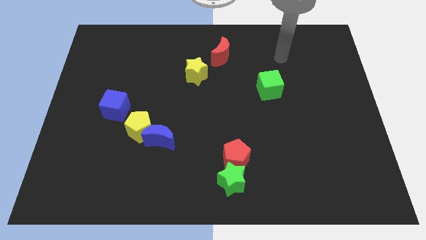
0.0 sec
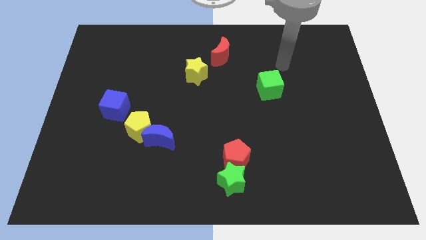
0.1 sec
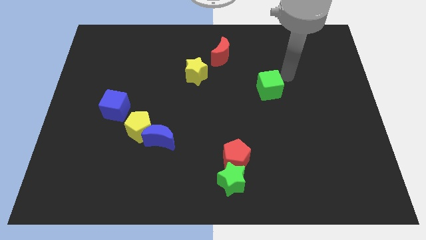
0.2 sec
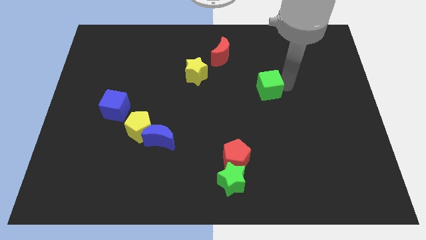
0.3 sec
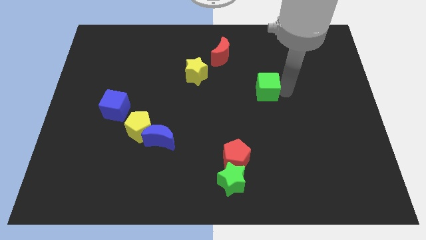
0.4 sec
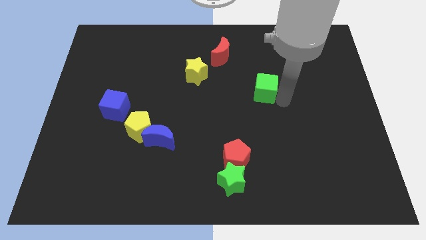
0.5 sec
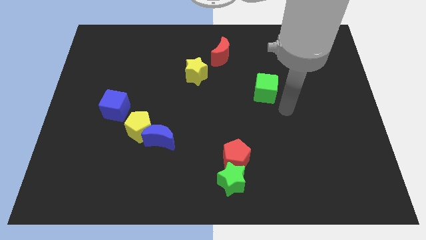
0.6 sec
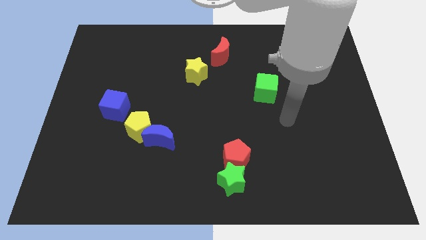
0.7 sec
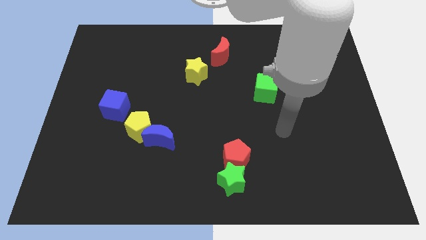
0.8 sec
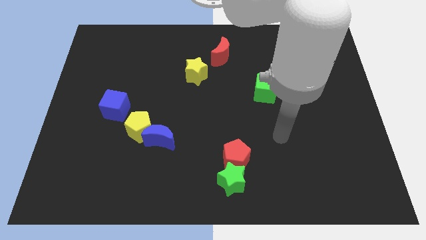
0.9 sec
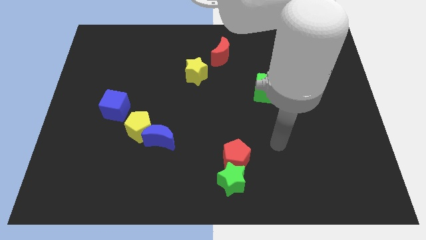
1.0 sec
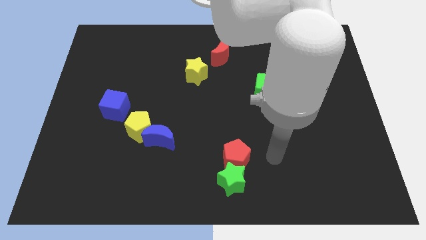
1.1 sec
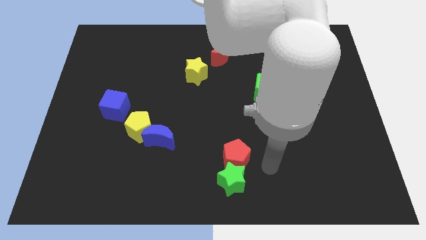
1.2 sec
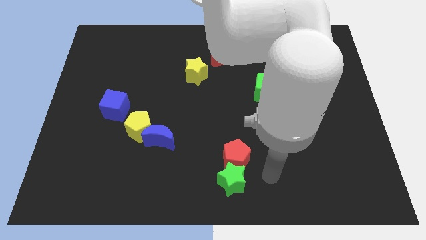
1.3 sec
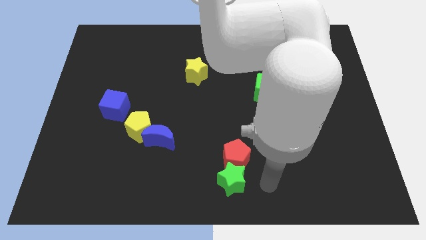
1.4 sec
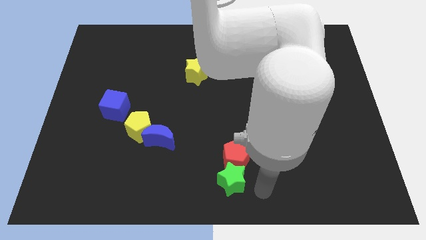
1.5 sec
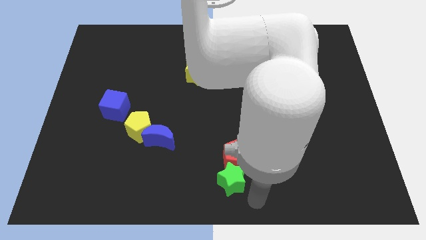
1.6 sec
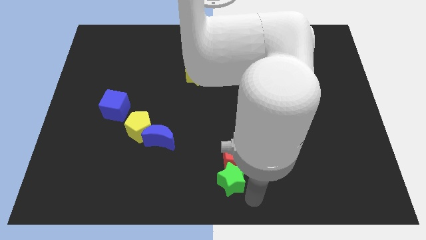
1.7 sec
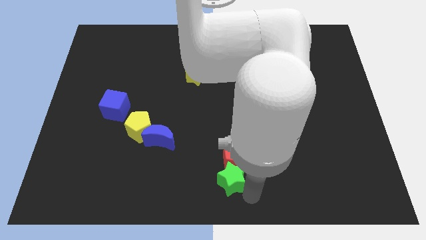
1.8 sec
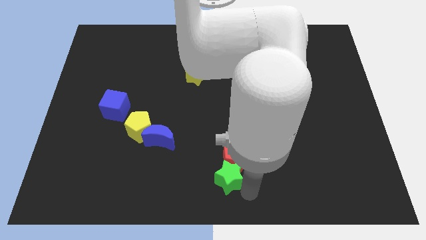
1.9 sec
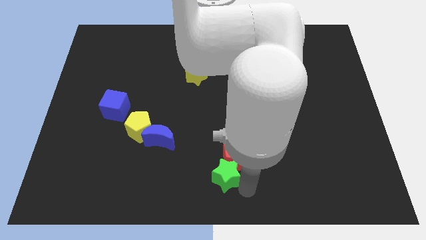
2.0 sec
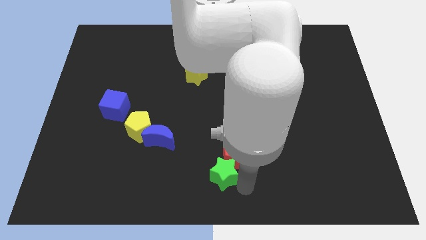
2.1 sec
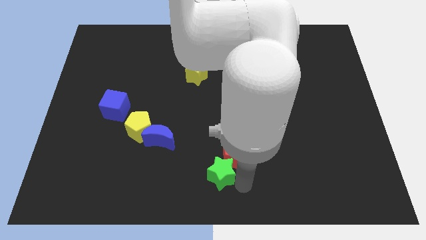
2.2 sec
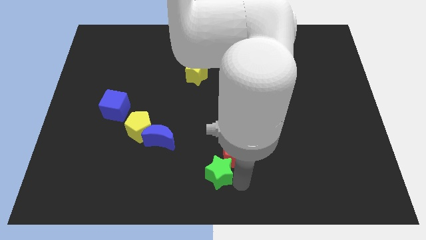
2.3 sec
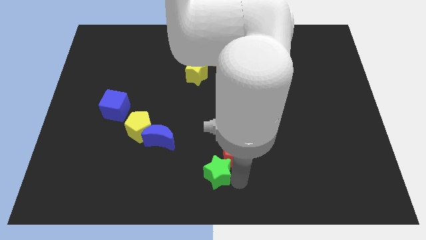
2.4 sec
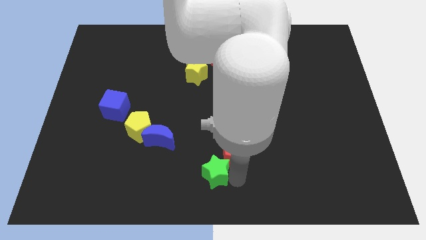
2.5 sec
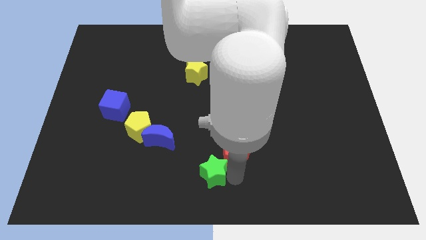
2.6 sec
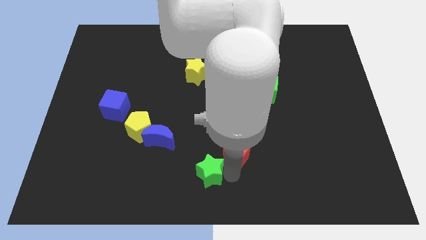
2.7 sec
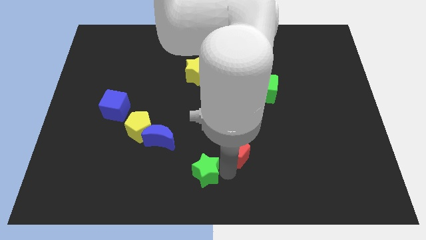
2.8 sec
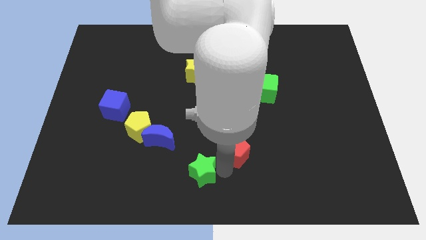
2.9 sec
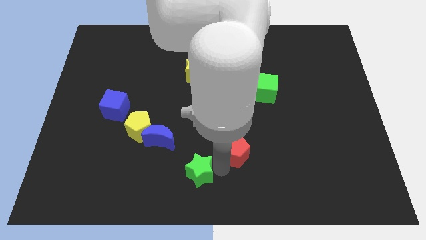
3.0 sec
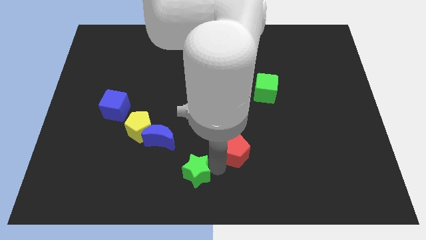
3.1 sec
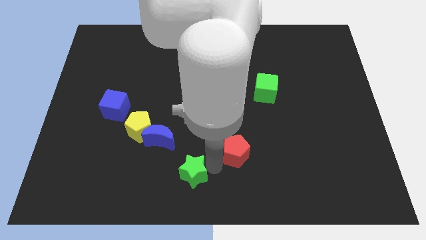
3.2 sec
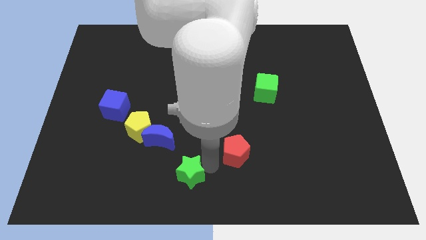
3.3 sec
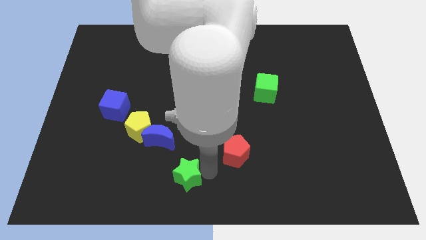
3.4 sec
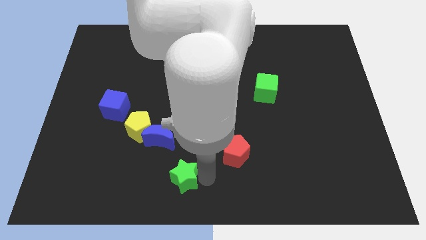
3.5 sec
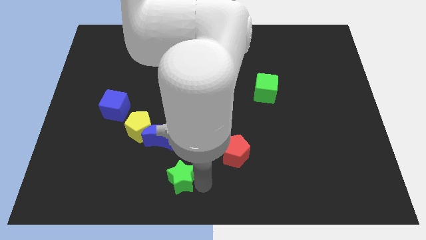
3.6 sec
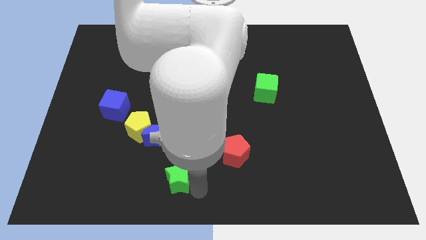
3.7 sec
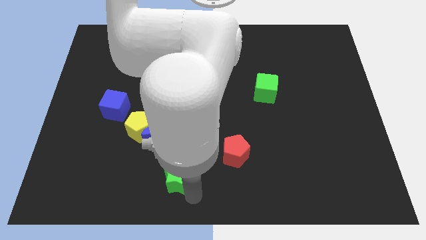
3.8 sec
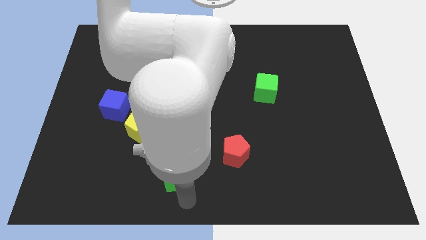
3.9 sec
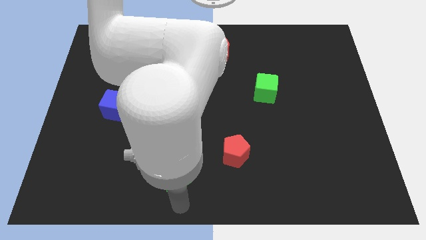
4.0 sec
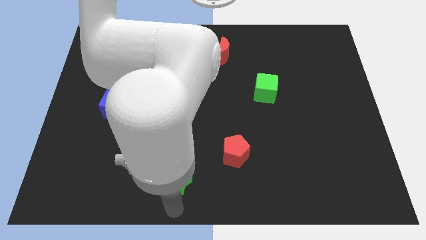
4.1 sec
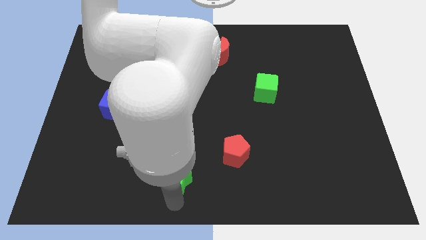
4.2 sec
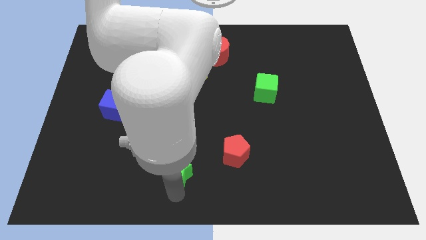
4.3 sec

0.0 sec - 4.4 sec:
push the green star a bit up and to the left

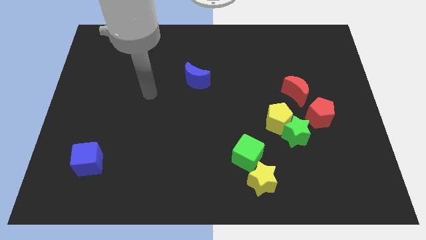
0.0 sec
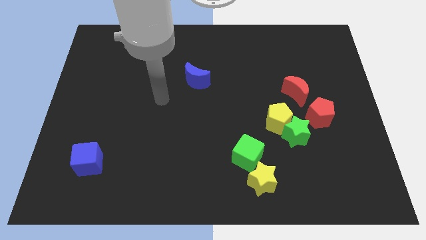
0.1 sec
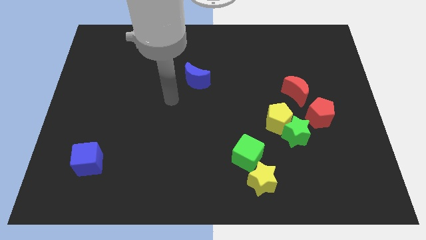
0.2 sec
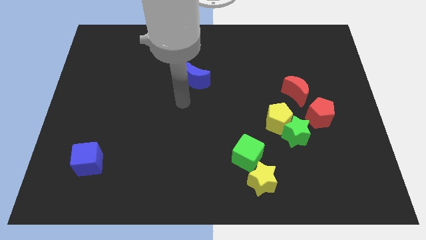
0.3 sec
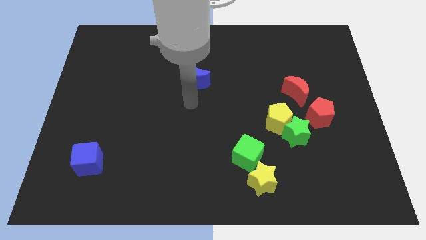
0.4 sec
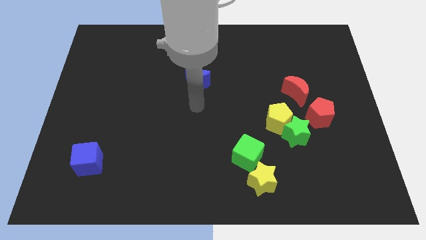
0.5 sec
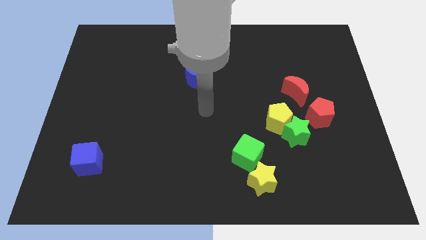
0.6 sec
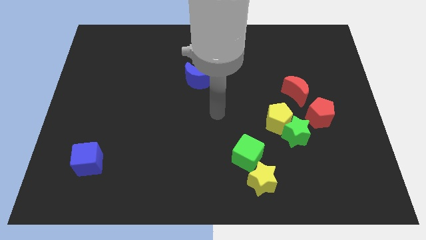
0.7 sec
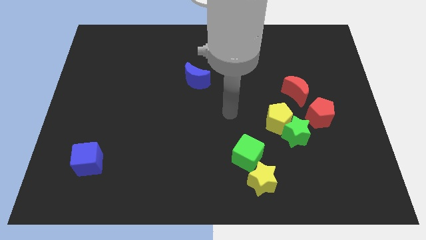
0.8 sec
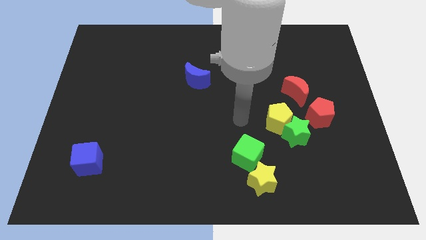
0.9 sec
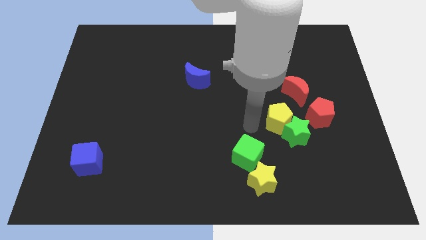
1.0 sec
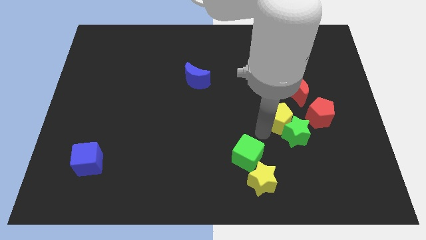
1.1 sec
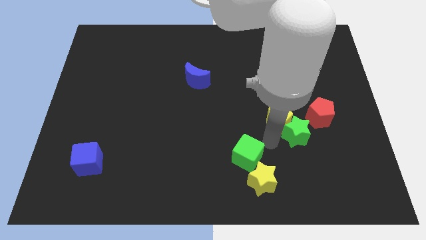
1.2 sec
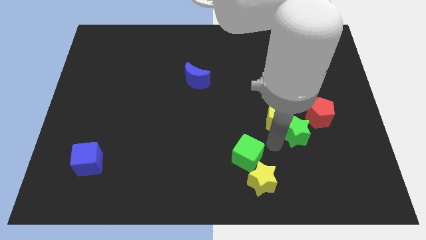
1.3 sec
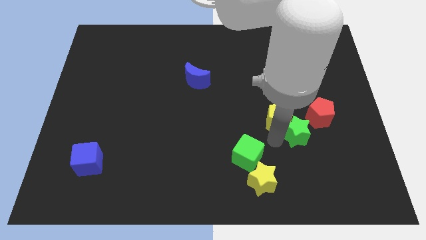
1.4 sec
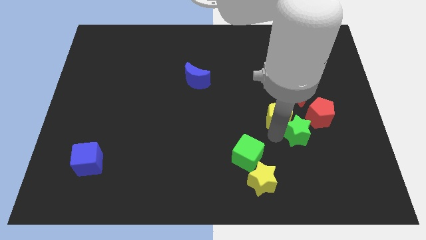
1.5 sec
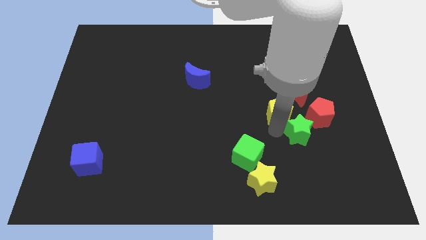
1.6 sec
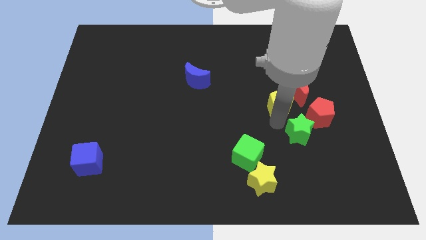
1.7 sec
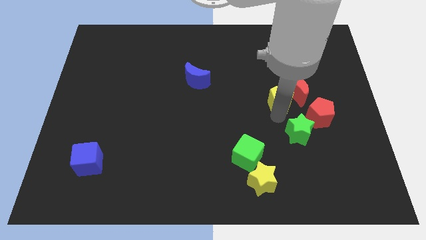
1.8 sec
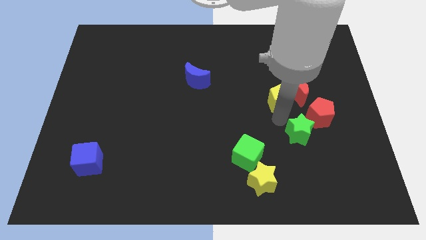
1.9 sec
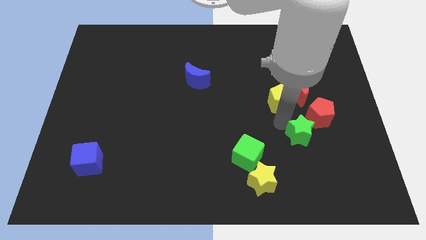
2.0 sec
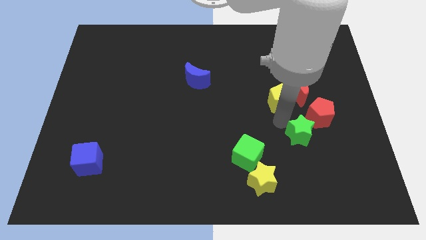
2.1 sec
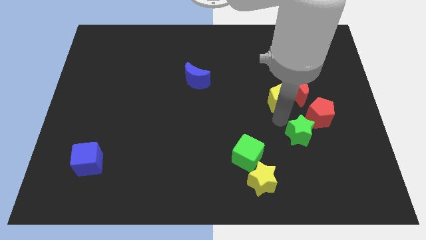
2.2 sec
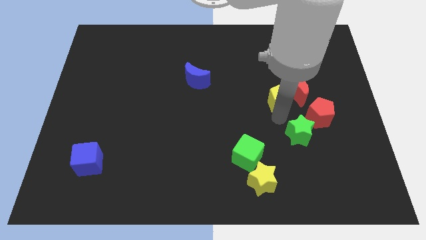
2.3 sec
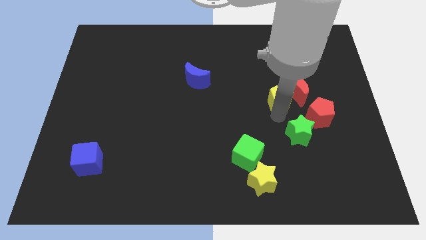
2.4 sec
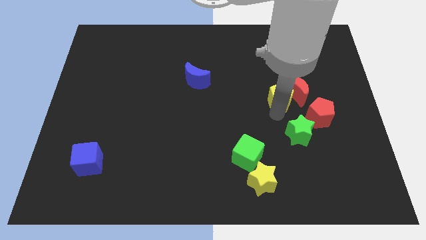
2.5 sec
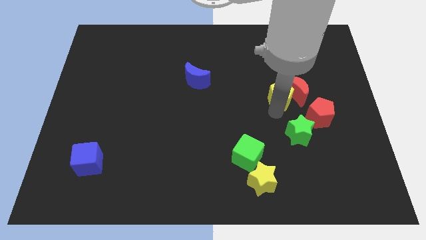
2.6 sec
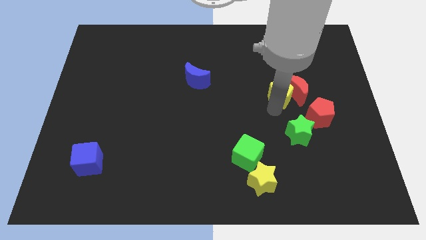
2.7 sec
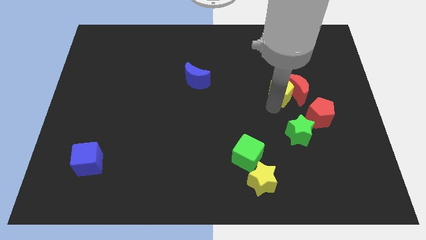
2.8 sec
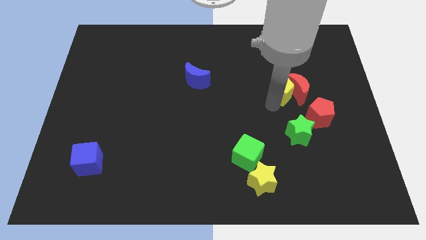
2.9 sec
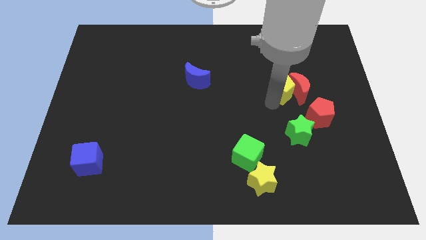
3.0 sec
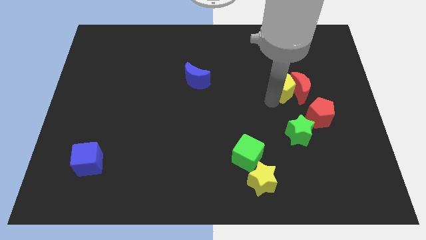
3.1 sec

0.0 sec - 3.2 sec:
move the yellow pentagon diagonally upwards and right slightly

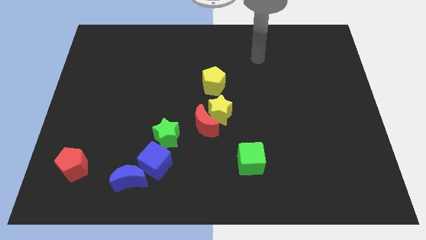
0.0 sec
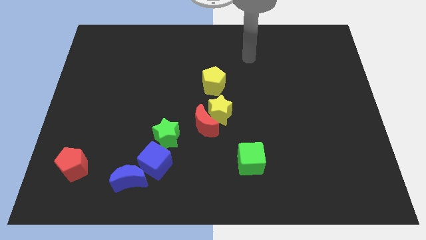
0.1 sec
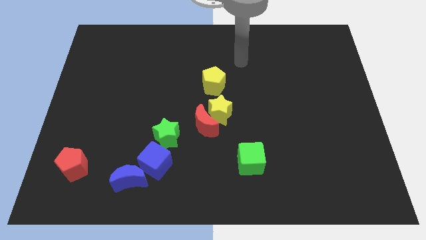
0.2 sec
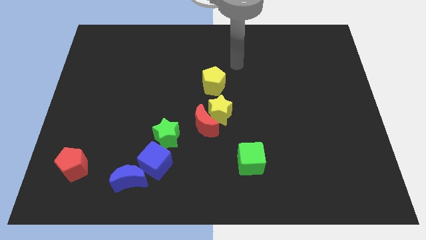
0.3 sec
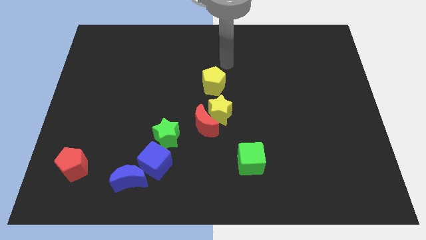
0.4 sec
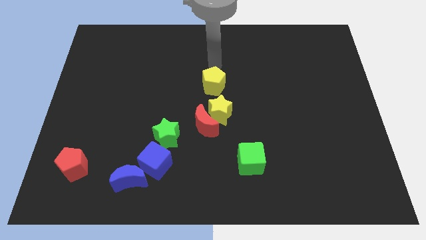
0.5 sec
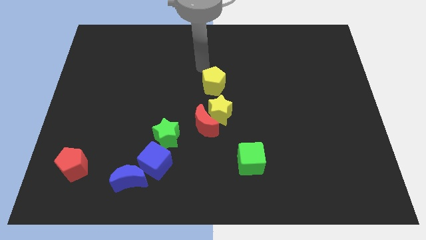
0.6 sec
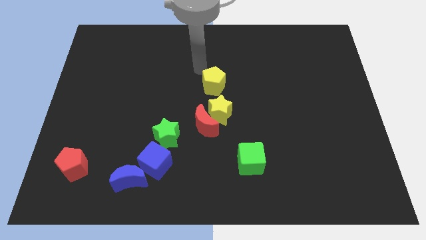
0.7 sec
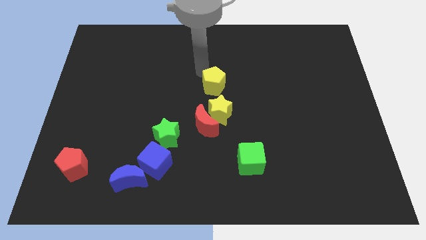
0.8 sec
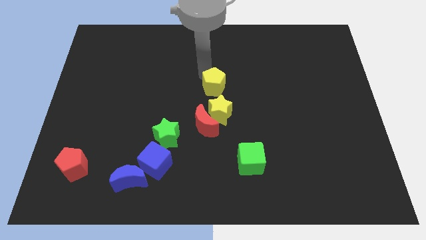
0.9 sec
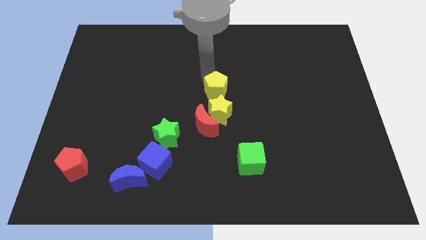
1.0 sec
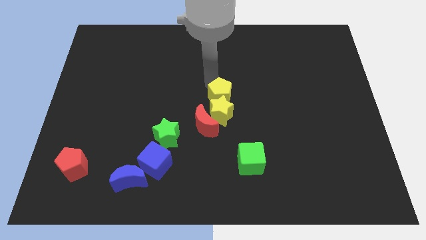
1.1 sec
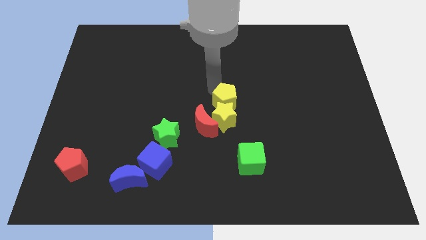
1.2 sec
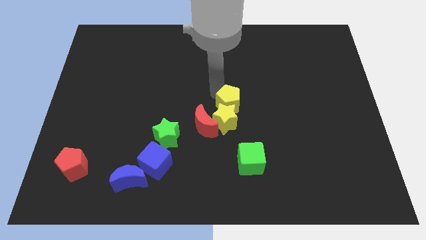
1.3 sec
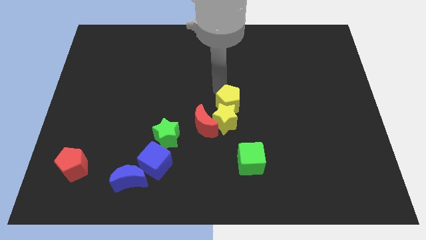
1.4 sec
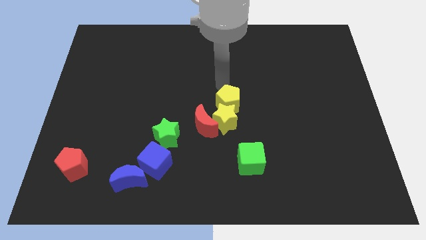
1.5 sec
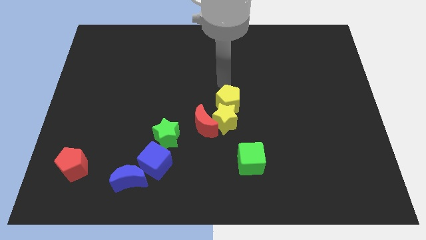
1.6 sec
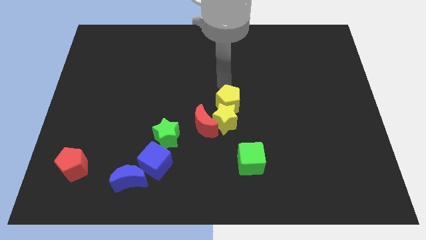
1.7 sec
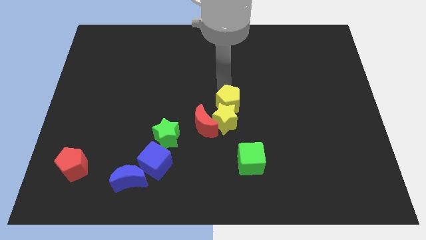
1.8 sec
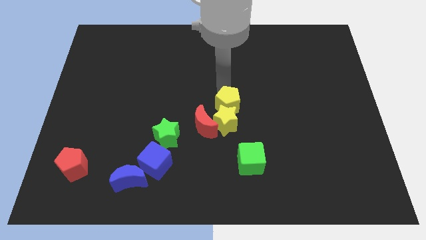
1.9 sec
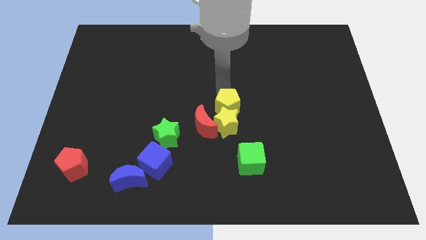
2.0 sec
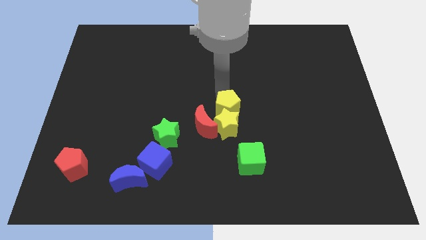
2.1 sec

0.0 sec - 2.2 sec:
slightly slide the yellow pentagon down
